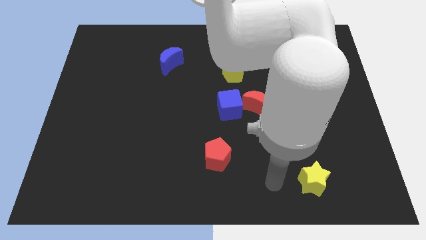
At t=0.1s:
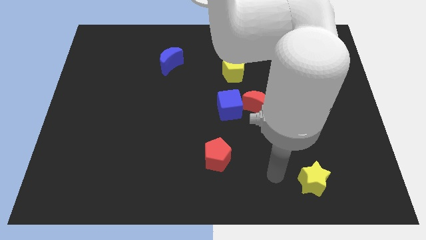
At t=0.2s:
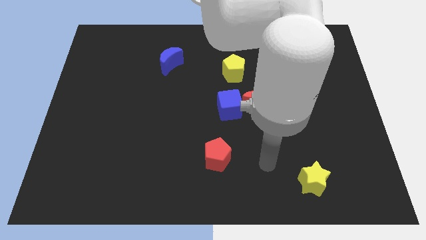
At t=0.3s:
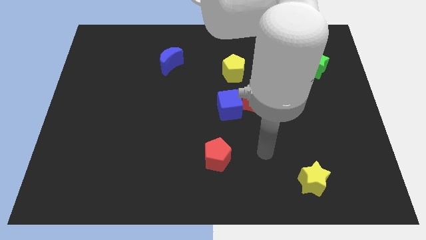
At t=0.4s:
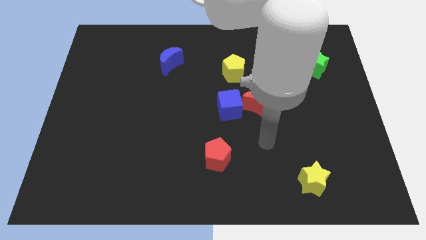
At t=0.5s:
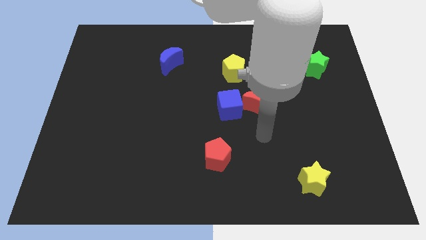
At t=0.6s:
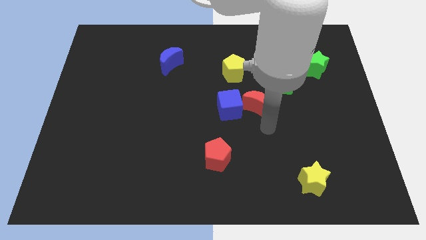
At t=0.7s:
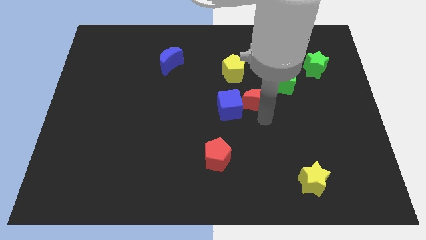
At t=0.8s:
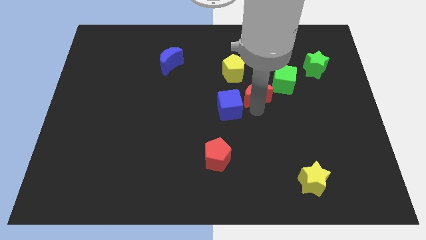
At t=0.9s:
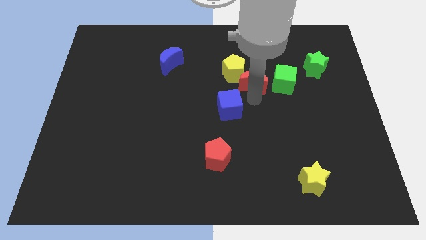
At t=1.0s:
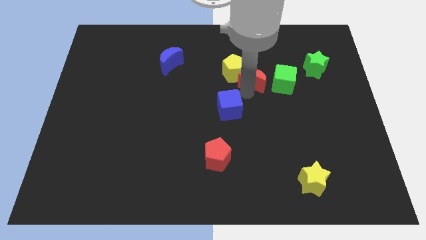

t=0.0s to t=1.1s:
pull the blue cube apart from the red moon

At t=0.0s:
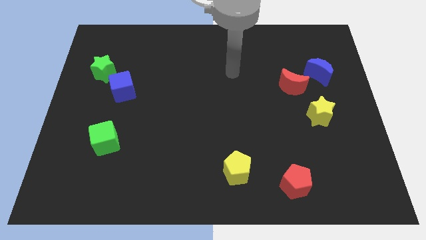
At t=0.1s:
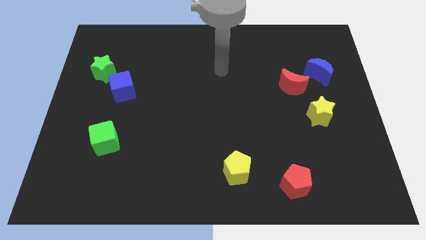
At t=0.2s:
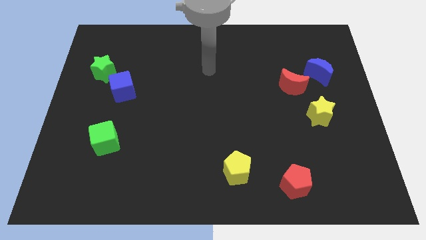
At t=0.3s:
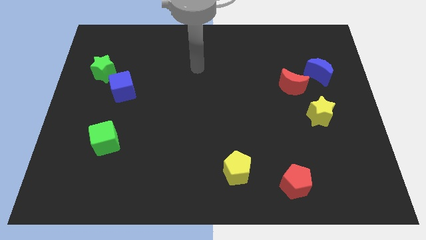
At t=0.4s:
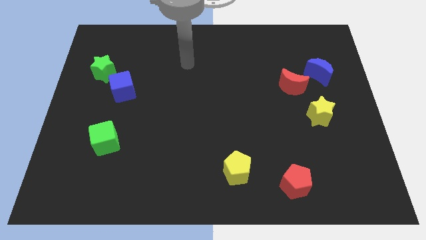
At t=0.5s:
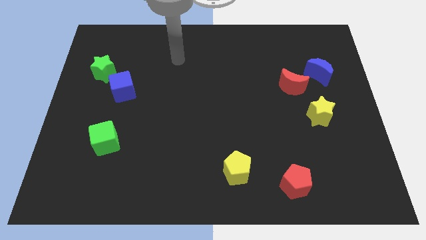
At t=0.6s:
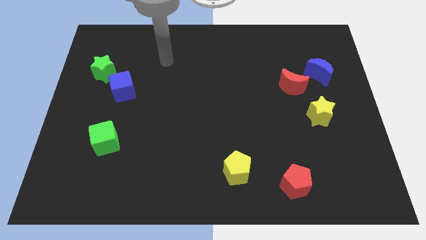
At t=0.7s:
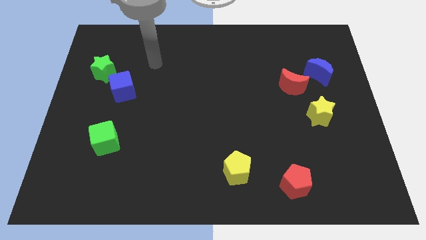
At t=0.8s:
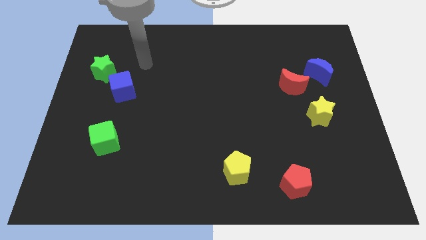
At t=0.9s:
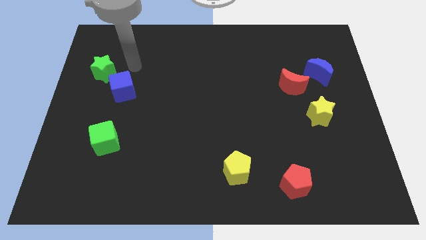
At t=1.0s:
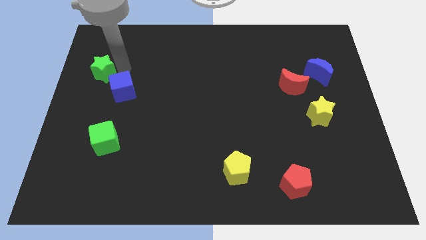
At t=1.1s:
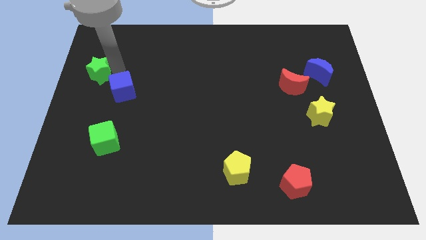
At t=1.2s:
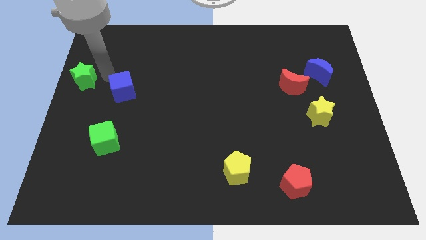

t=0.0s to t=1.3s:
separate the blue cube from the green star

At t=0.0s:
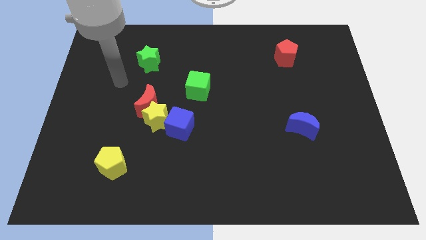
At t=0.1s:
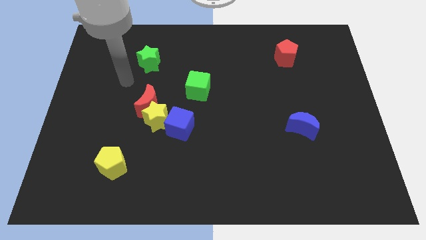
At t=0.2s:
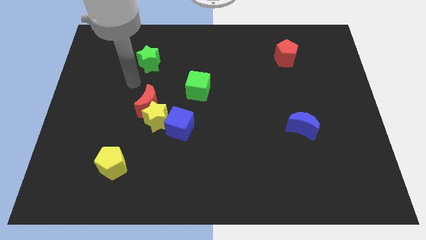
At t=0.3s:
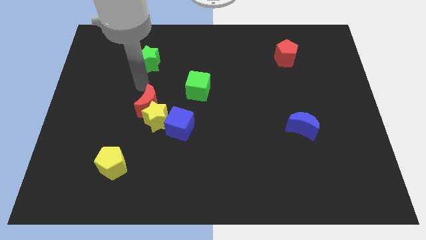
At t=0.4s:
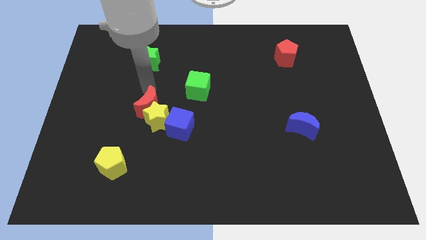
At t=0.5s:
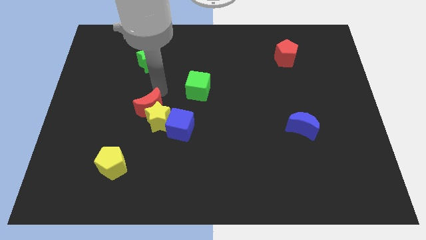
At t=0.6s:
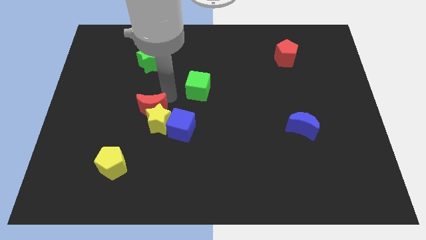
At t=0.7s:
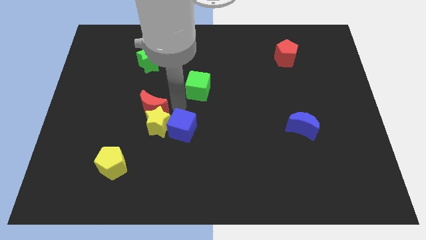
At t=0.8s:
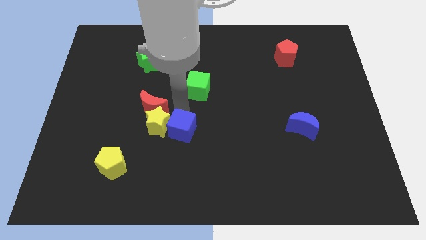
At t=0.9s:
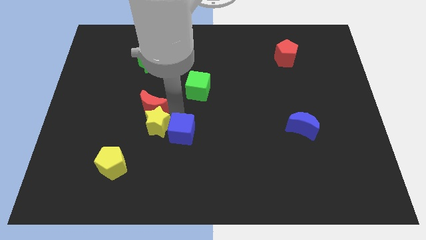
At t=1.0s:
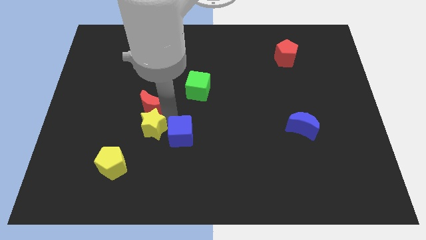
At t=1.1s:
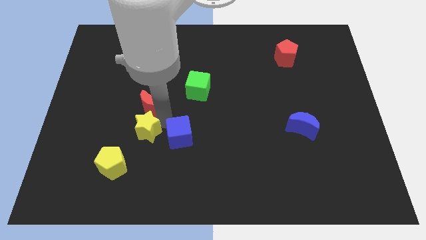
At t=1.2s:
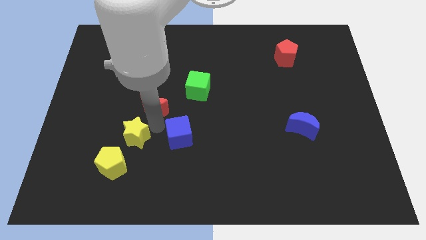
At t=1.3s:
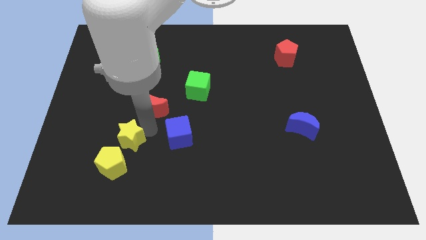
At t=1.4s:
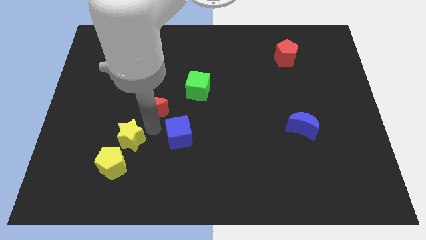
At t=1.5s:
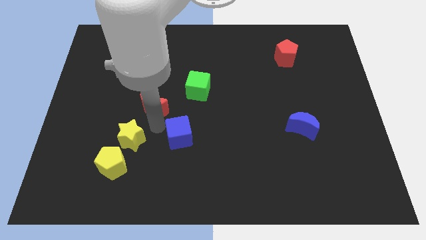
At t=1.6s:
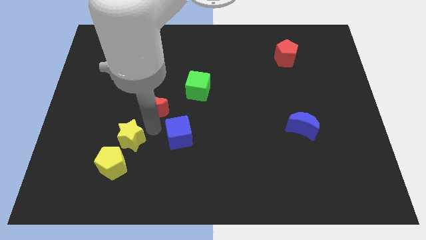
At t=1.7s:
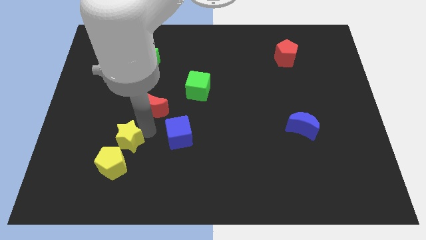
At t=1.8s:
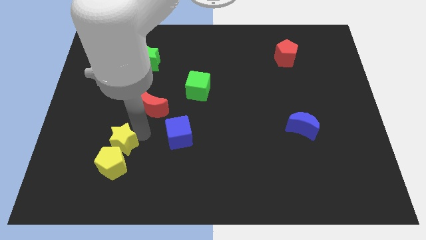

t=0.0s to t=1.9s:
separate the yellow star from the red moon and blue cube

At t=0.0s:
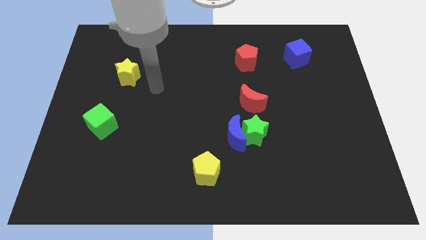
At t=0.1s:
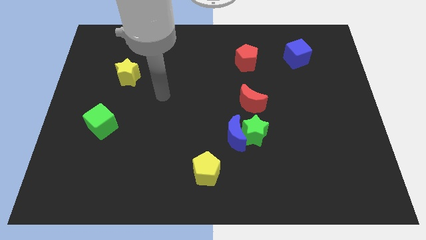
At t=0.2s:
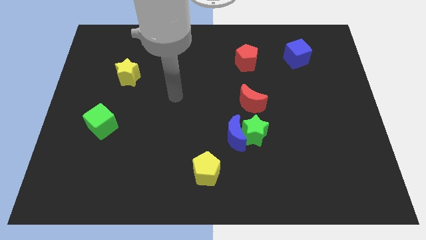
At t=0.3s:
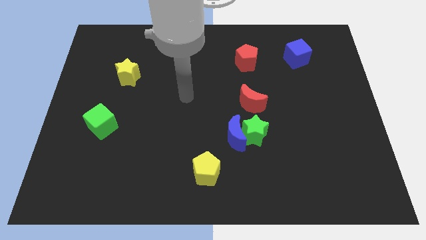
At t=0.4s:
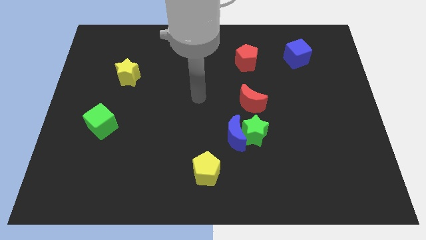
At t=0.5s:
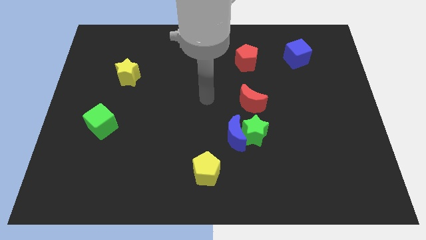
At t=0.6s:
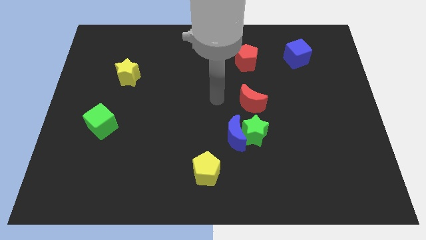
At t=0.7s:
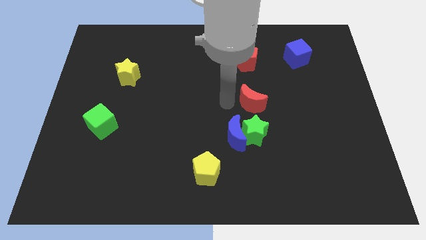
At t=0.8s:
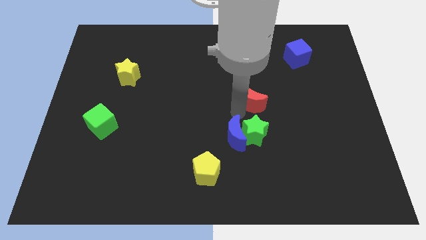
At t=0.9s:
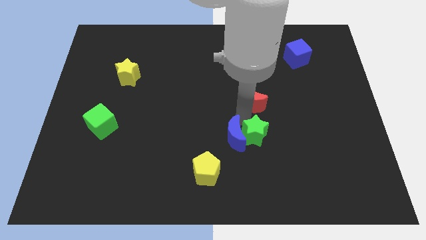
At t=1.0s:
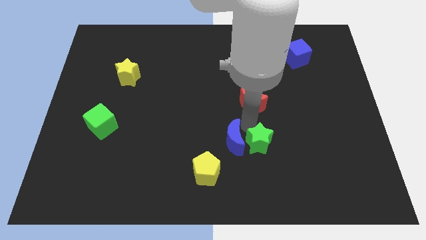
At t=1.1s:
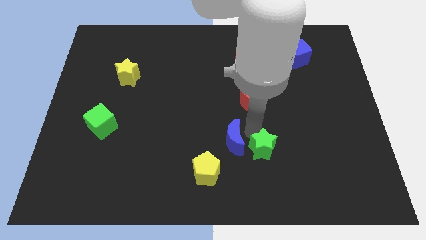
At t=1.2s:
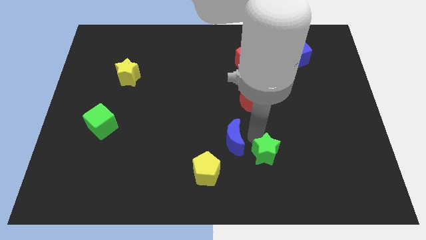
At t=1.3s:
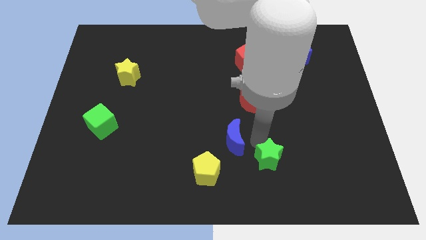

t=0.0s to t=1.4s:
separate the green star from the blue moon and red moon

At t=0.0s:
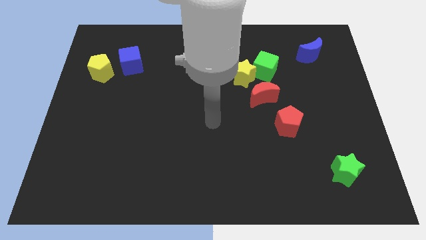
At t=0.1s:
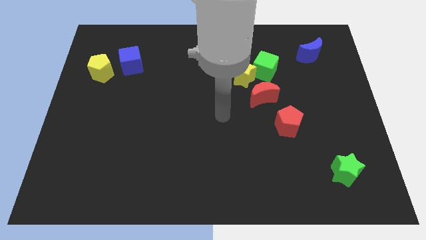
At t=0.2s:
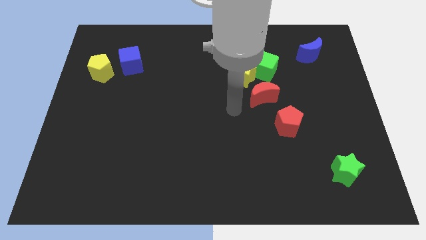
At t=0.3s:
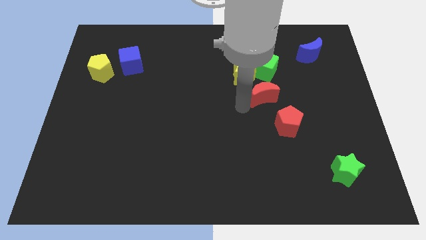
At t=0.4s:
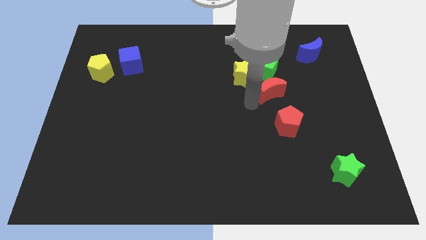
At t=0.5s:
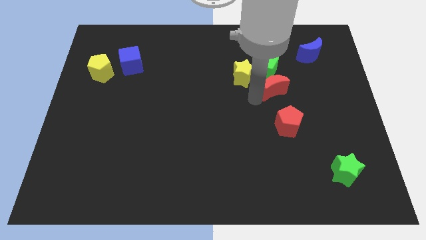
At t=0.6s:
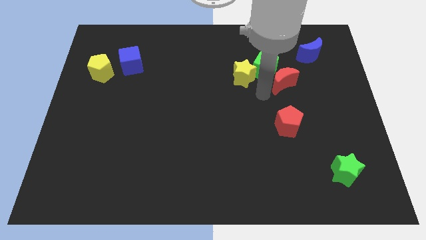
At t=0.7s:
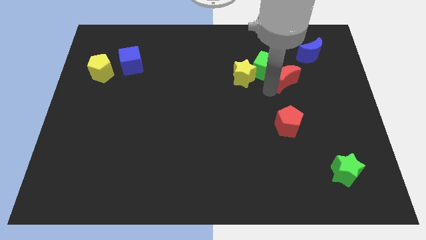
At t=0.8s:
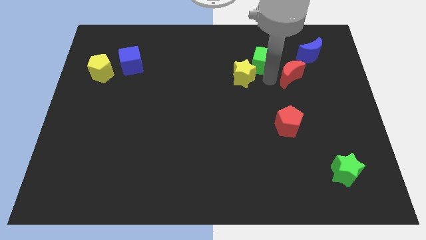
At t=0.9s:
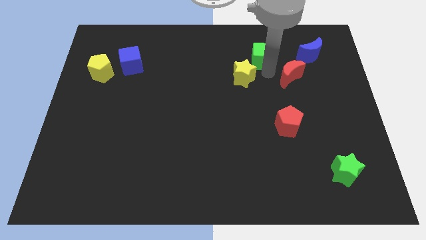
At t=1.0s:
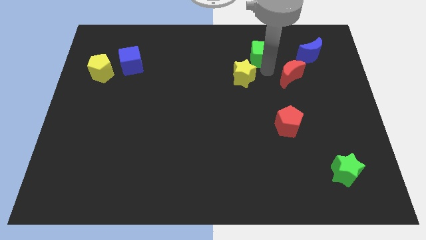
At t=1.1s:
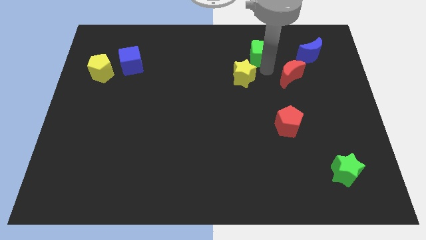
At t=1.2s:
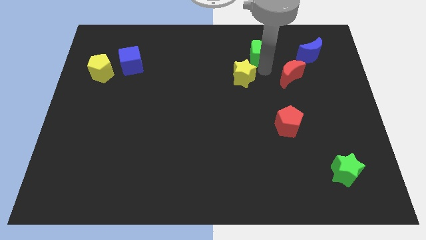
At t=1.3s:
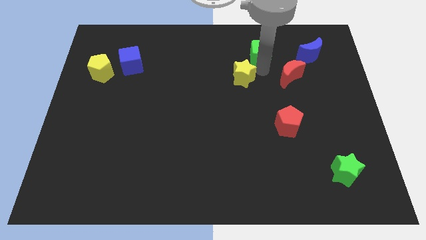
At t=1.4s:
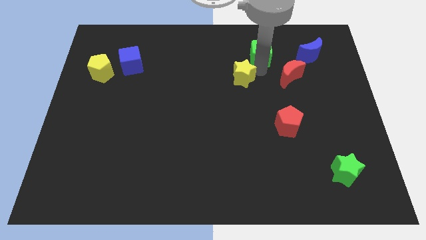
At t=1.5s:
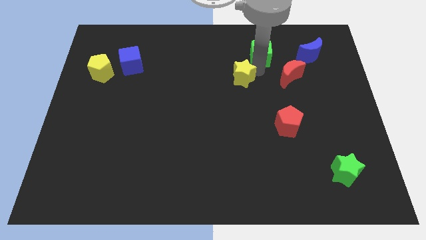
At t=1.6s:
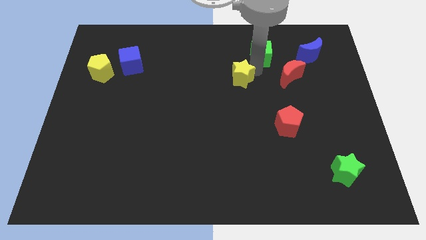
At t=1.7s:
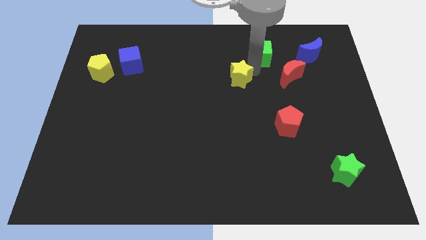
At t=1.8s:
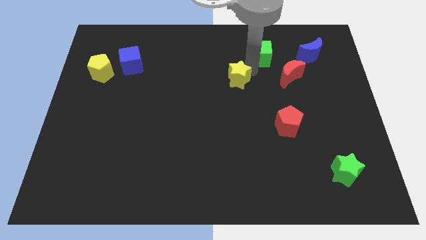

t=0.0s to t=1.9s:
move the yellow star away from the green cube and red moon

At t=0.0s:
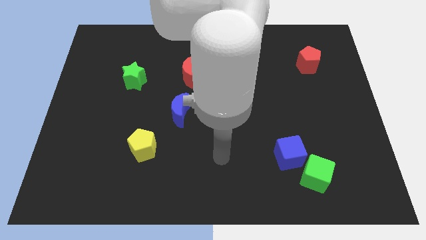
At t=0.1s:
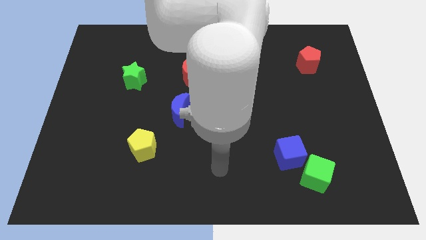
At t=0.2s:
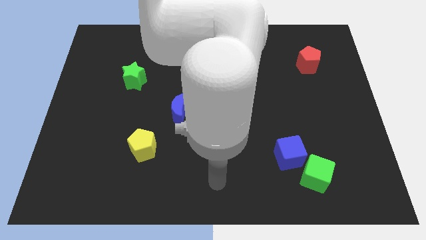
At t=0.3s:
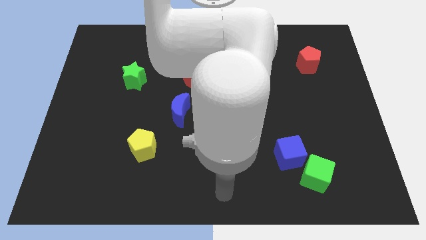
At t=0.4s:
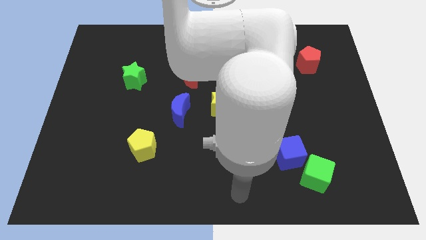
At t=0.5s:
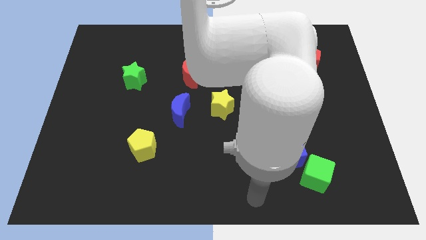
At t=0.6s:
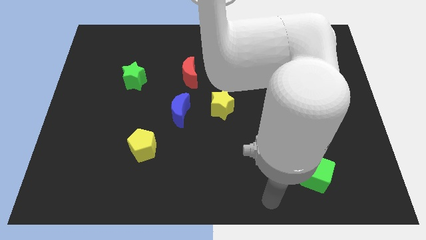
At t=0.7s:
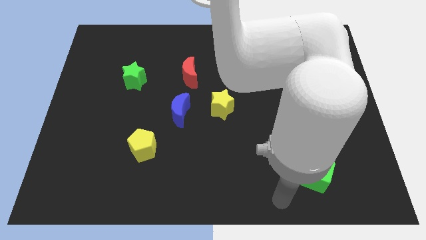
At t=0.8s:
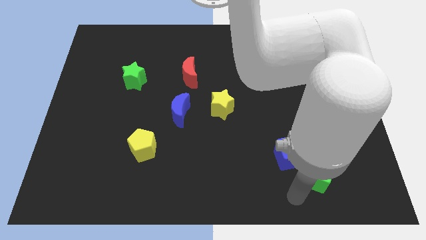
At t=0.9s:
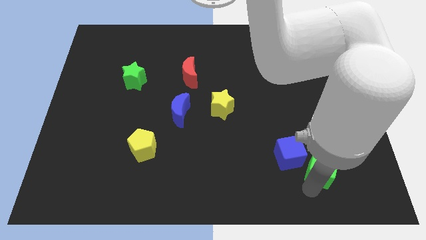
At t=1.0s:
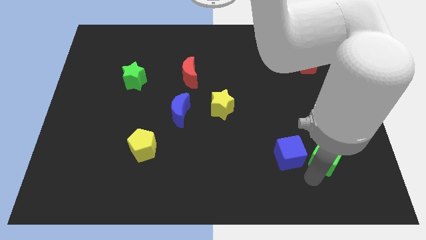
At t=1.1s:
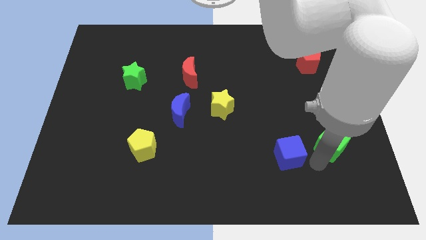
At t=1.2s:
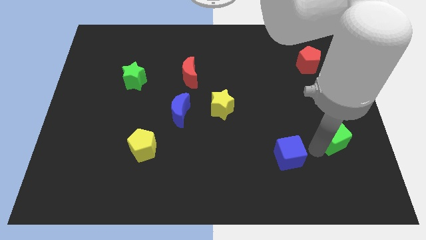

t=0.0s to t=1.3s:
separate the blue cube from the green cube

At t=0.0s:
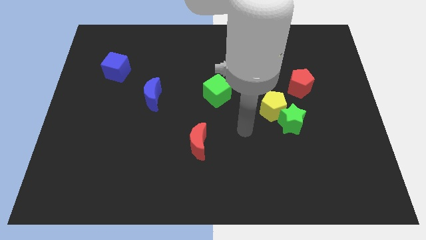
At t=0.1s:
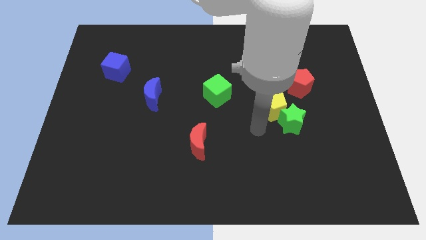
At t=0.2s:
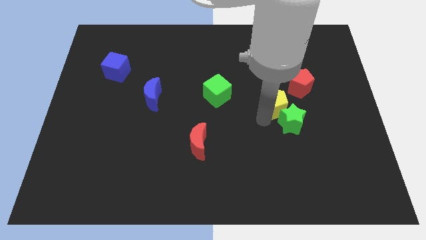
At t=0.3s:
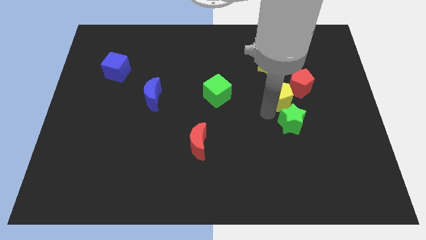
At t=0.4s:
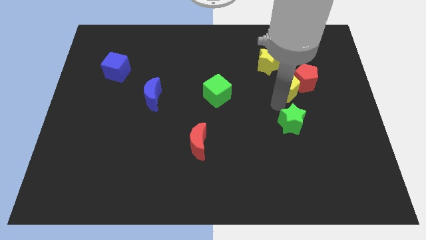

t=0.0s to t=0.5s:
move the green star away from the yellow pentagon

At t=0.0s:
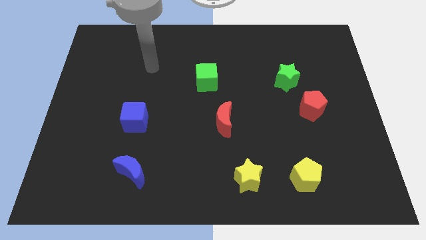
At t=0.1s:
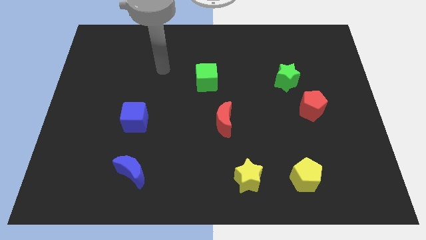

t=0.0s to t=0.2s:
separate the red pentagon from the green star
